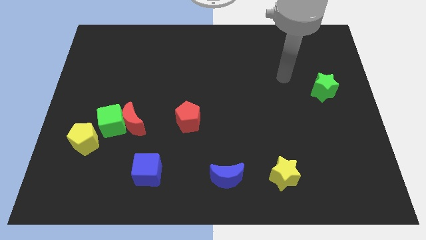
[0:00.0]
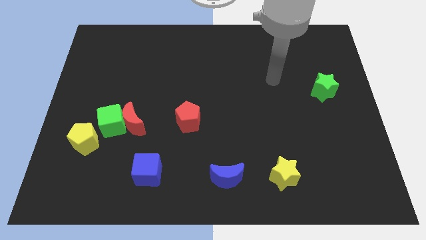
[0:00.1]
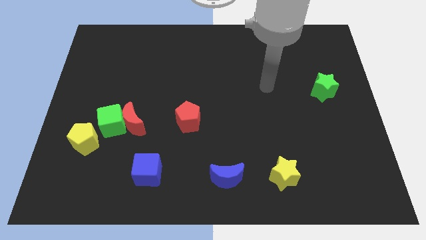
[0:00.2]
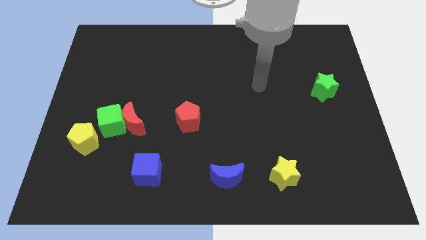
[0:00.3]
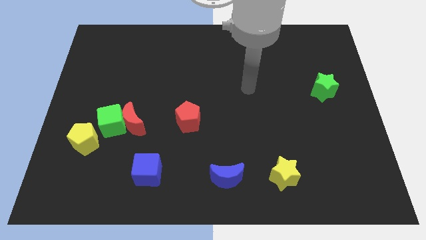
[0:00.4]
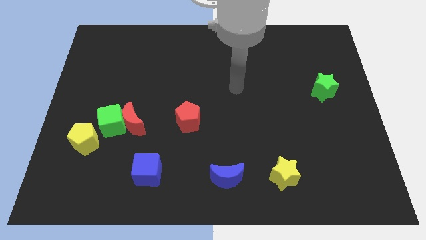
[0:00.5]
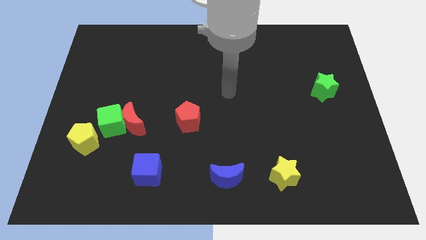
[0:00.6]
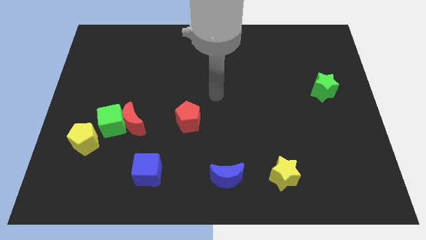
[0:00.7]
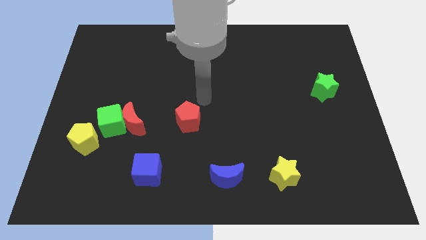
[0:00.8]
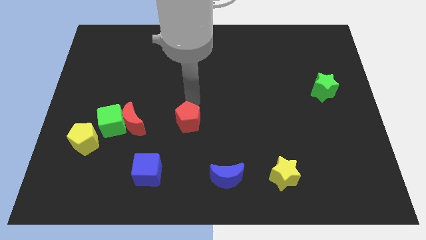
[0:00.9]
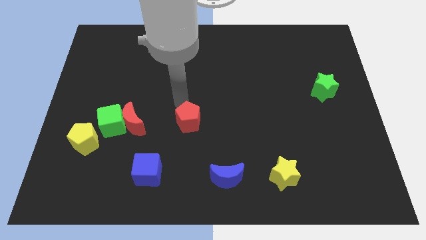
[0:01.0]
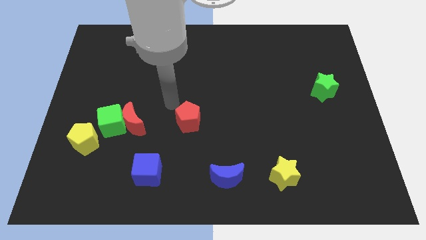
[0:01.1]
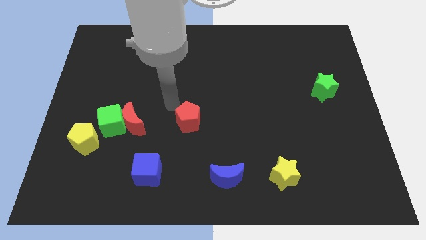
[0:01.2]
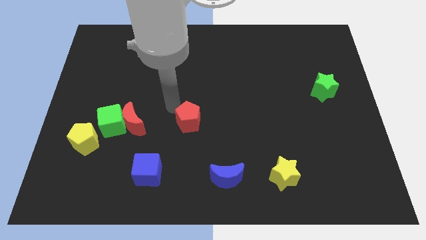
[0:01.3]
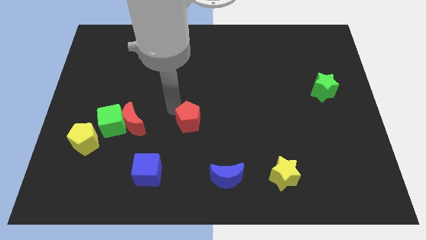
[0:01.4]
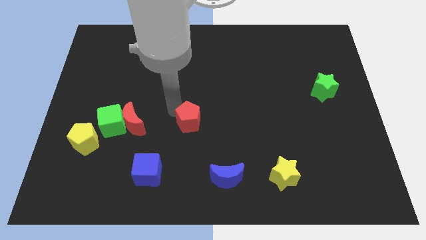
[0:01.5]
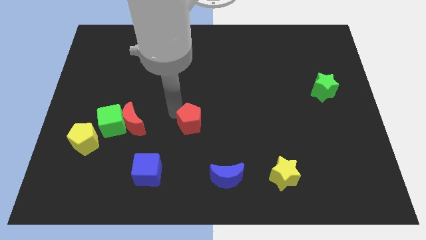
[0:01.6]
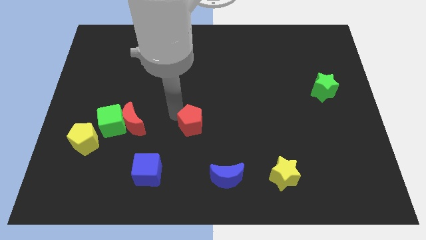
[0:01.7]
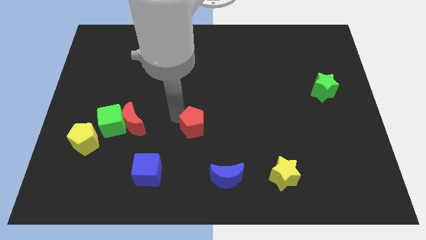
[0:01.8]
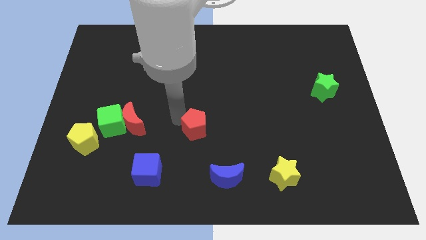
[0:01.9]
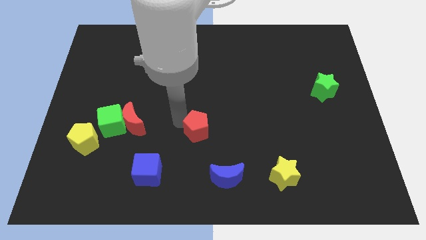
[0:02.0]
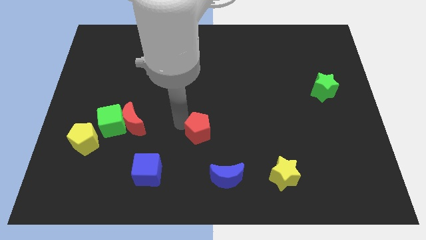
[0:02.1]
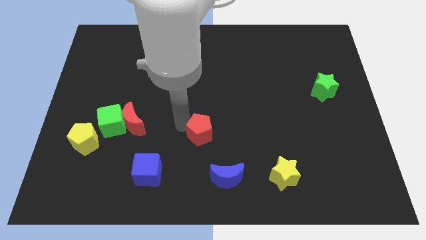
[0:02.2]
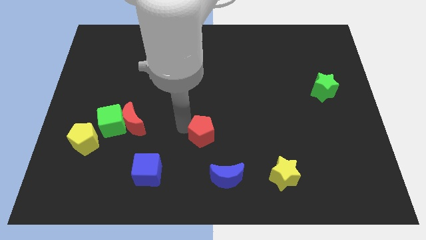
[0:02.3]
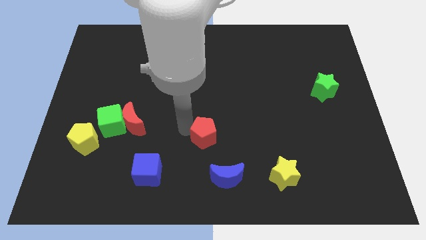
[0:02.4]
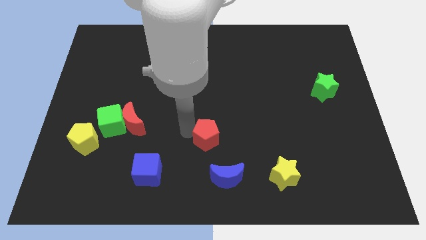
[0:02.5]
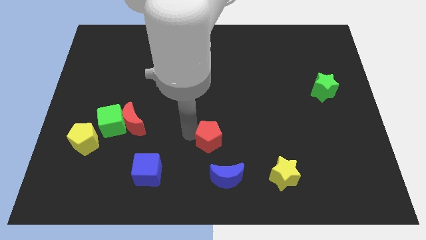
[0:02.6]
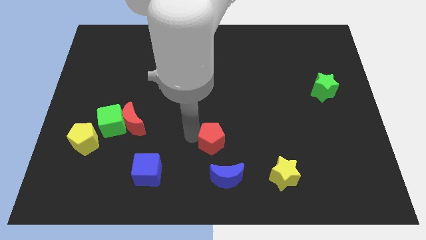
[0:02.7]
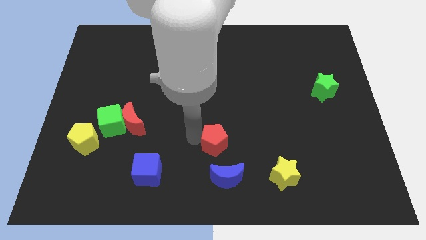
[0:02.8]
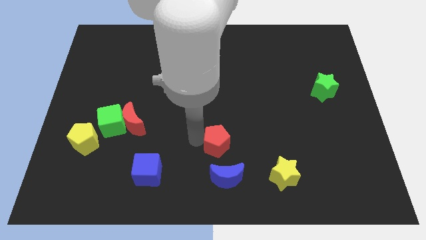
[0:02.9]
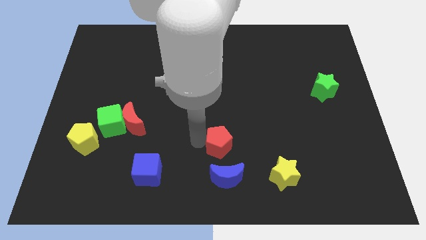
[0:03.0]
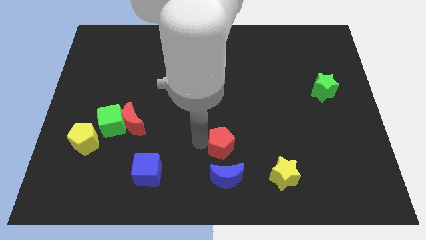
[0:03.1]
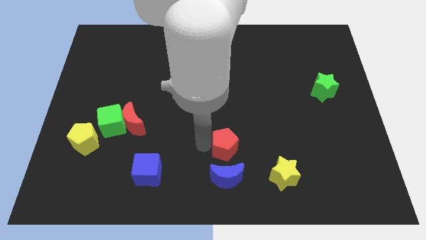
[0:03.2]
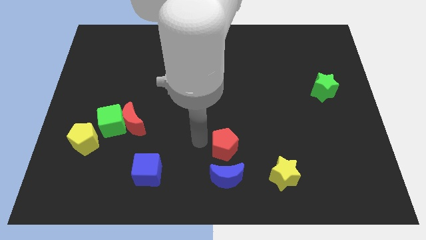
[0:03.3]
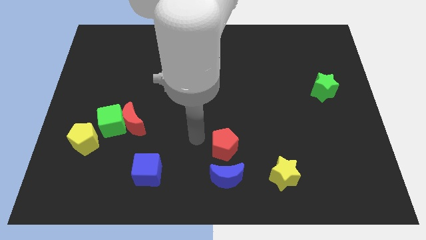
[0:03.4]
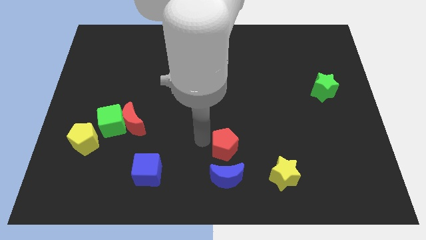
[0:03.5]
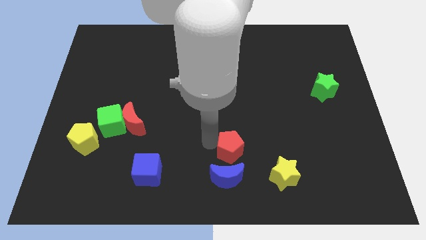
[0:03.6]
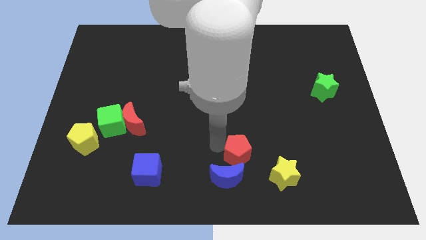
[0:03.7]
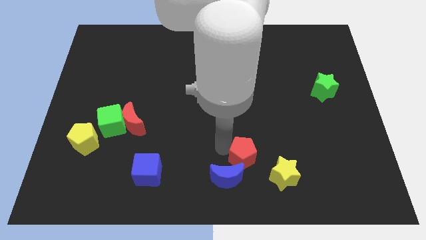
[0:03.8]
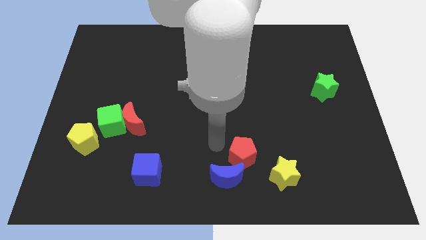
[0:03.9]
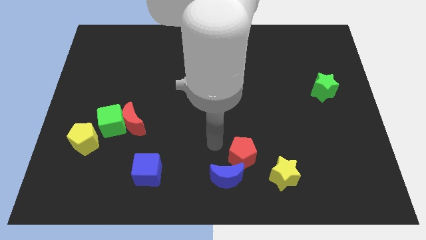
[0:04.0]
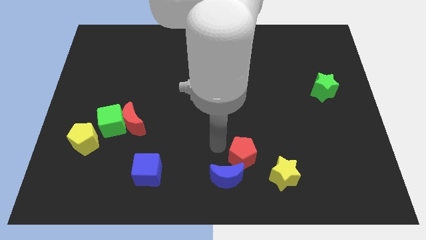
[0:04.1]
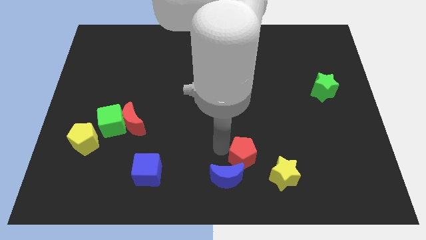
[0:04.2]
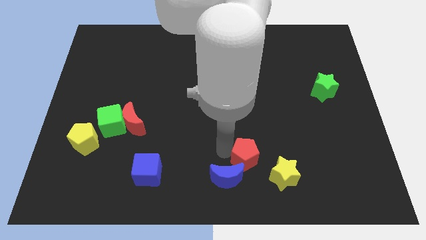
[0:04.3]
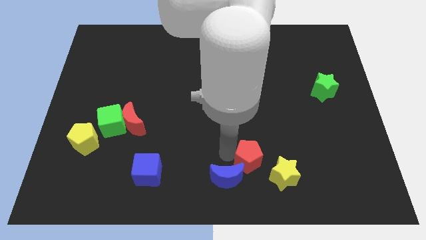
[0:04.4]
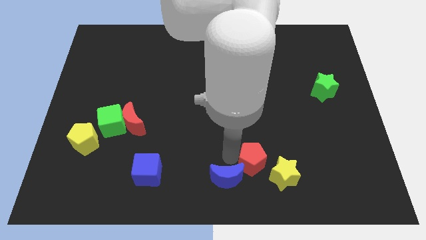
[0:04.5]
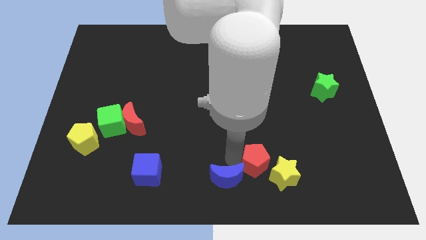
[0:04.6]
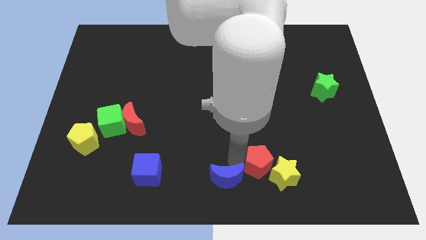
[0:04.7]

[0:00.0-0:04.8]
slide the red pentagon next to the yellow star

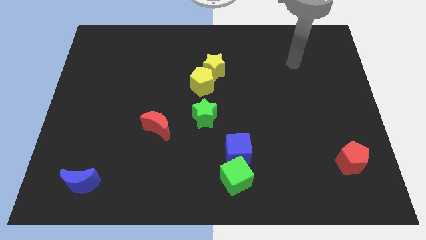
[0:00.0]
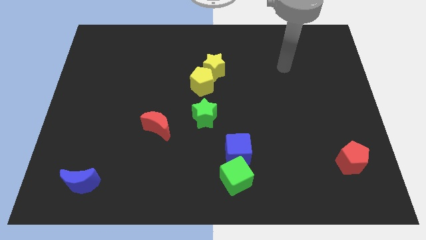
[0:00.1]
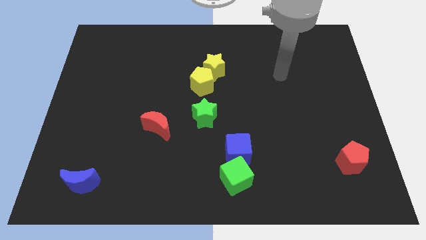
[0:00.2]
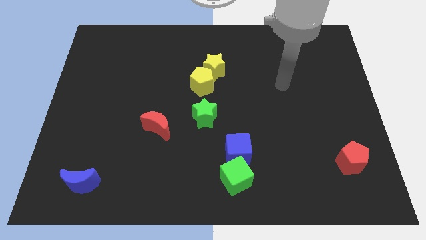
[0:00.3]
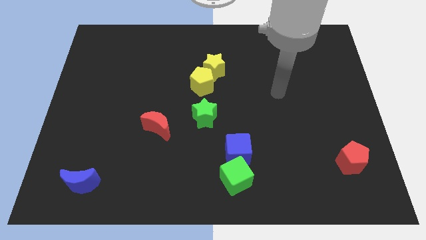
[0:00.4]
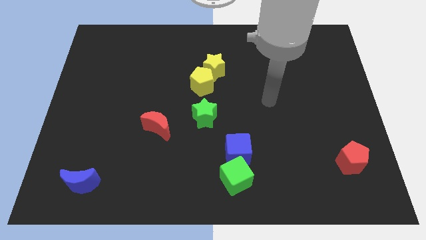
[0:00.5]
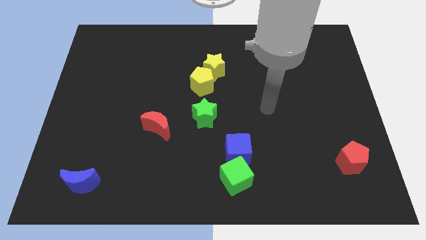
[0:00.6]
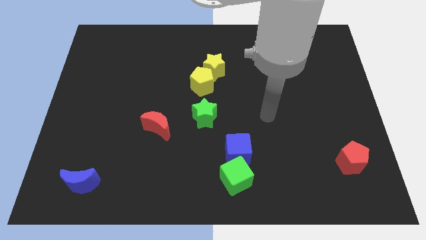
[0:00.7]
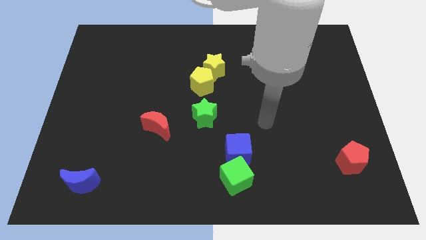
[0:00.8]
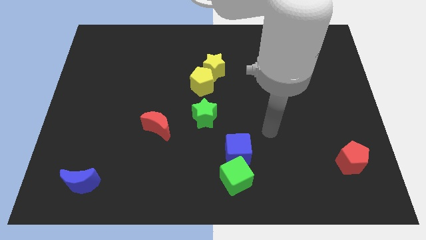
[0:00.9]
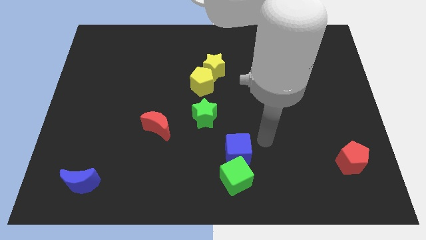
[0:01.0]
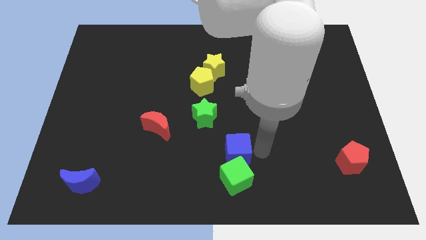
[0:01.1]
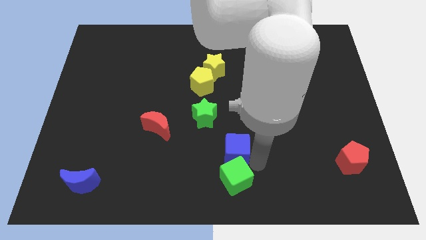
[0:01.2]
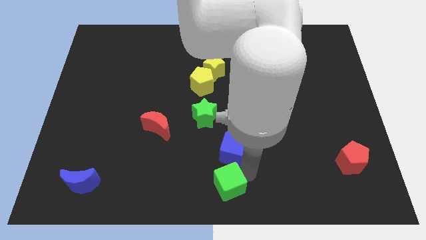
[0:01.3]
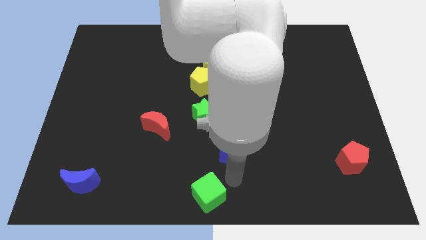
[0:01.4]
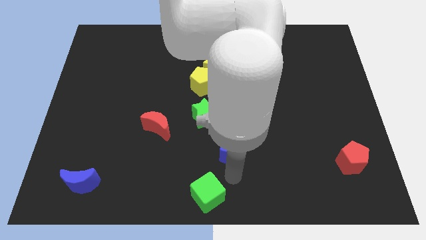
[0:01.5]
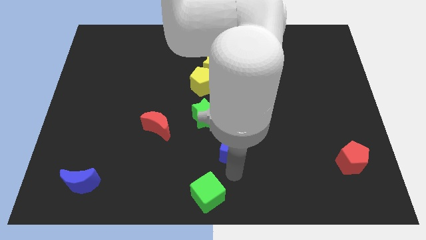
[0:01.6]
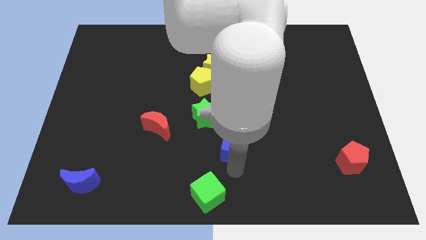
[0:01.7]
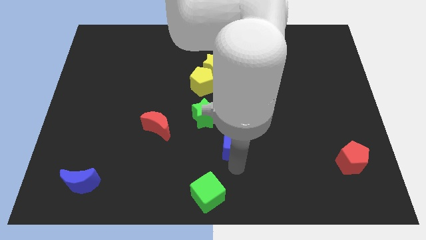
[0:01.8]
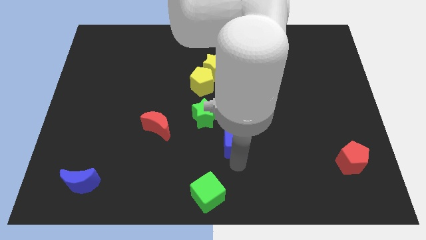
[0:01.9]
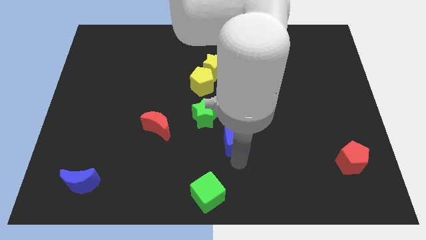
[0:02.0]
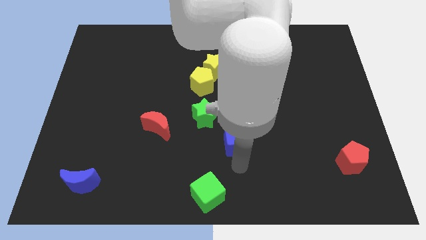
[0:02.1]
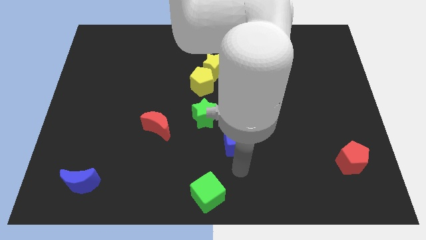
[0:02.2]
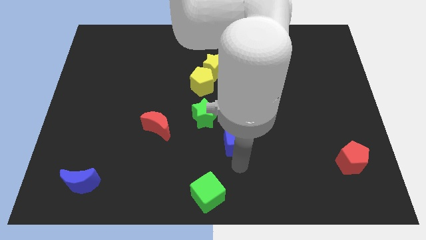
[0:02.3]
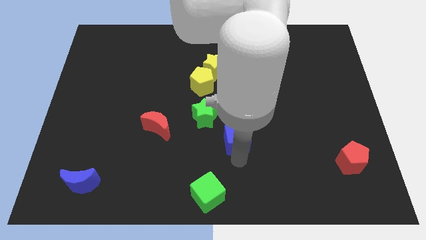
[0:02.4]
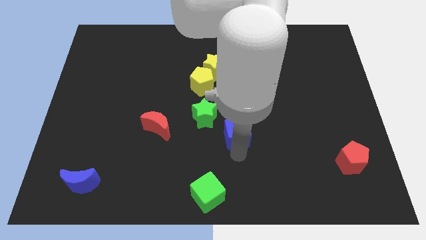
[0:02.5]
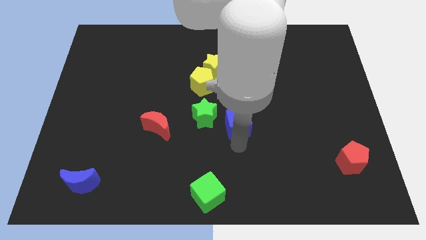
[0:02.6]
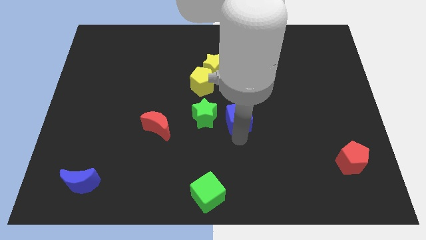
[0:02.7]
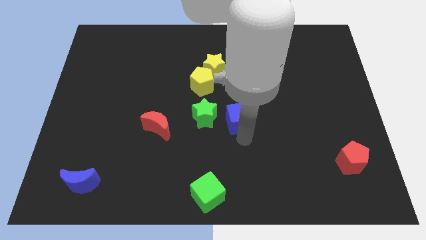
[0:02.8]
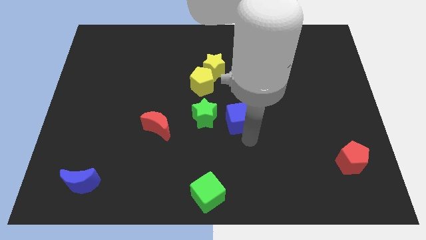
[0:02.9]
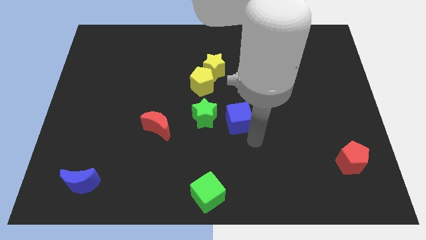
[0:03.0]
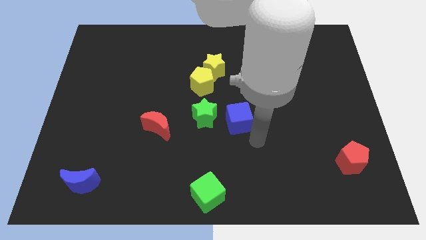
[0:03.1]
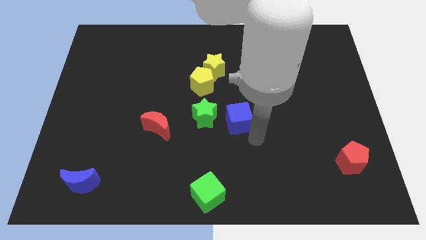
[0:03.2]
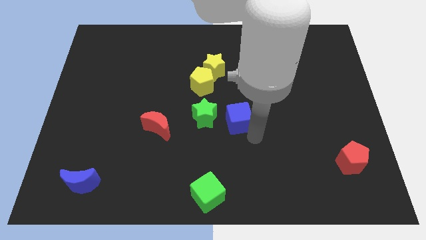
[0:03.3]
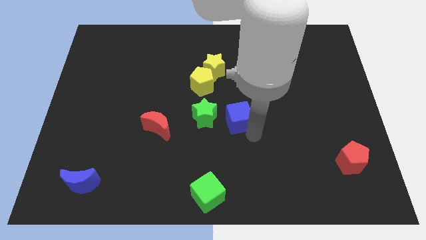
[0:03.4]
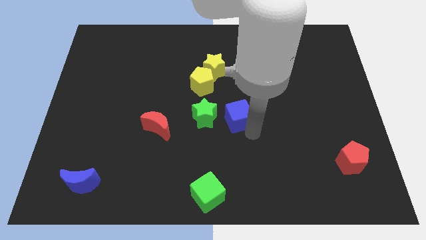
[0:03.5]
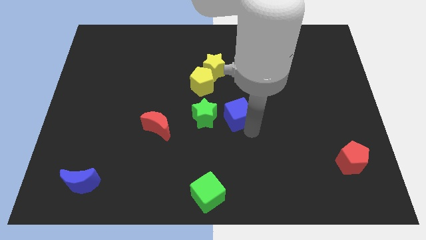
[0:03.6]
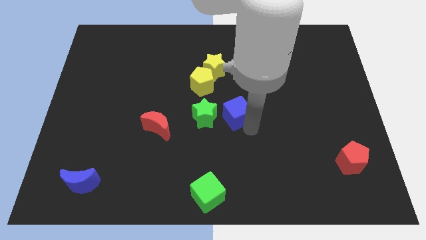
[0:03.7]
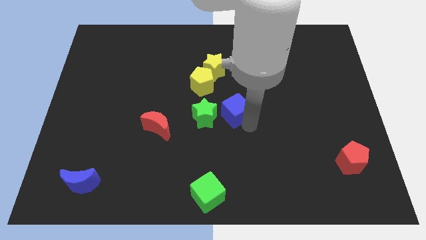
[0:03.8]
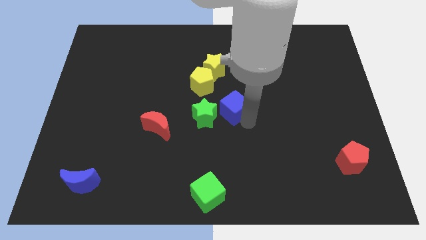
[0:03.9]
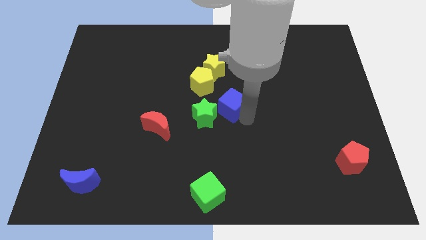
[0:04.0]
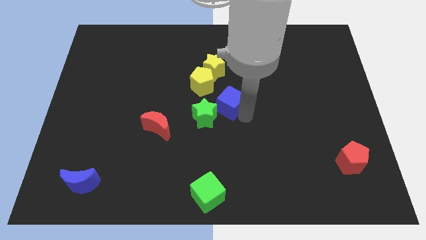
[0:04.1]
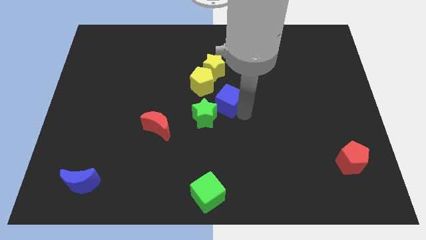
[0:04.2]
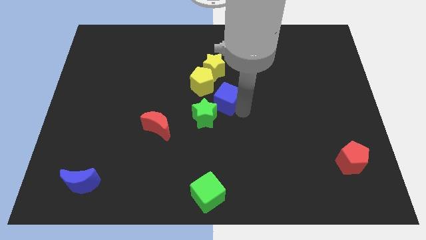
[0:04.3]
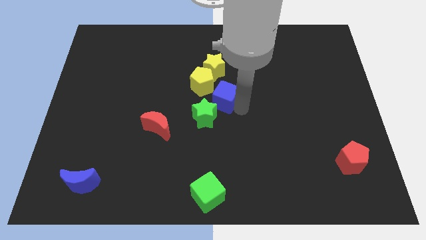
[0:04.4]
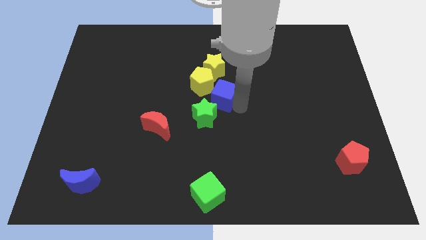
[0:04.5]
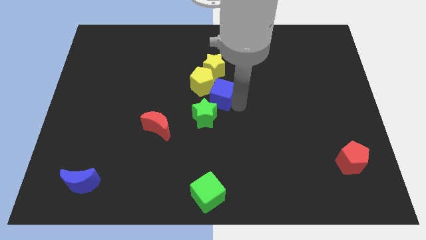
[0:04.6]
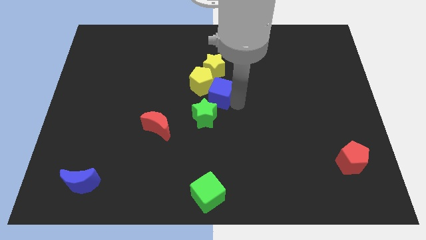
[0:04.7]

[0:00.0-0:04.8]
slide the blue cube towards the yellow pentagon
